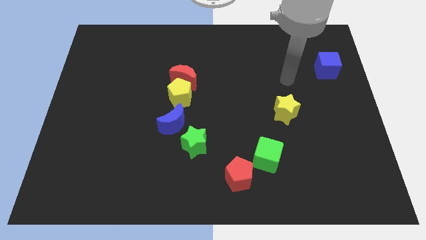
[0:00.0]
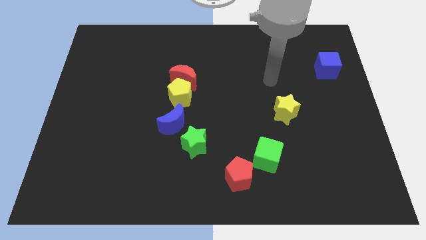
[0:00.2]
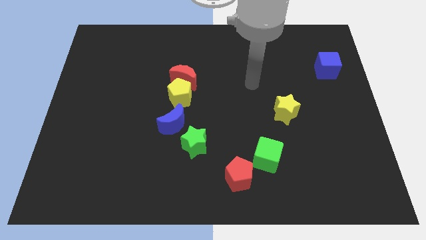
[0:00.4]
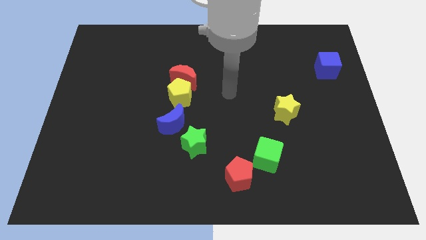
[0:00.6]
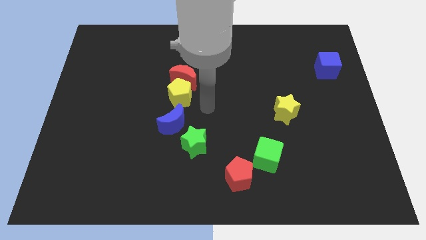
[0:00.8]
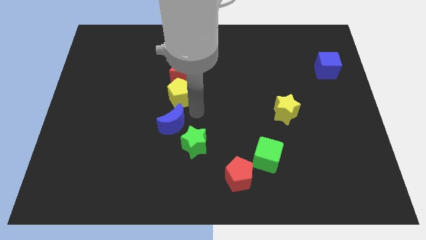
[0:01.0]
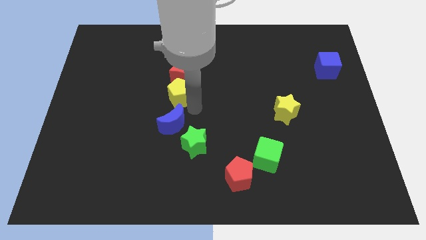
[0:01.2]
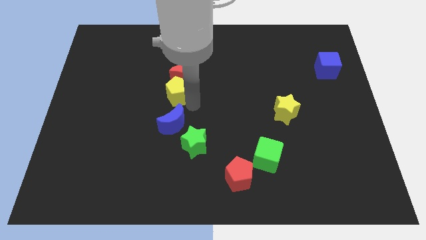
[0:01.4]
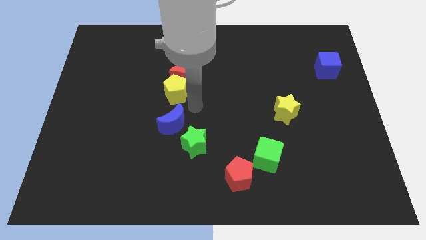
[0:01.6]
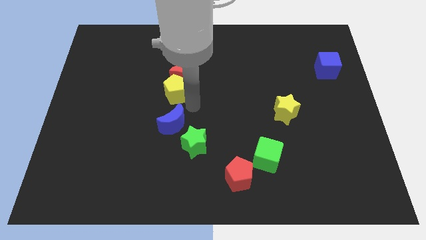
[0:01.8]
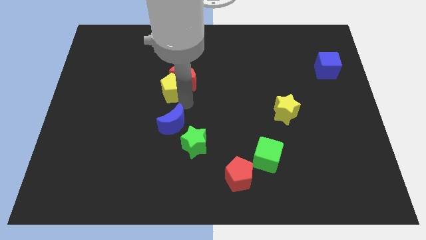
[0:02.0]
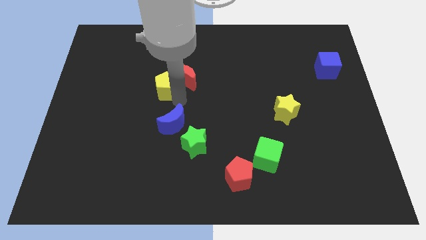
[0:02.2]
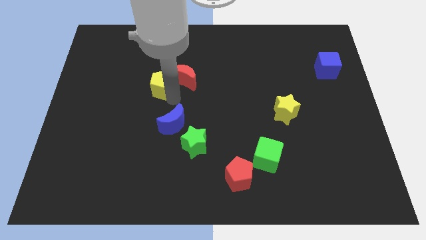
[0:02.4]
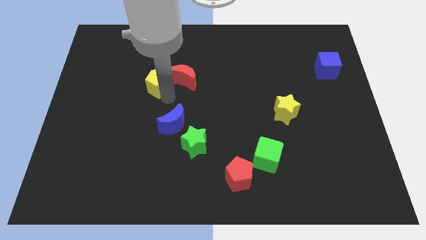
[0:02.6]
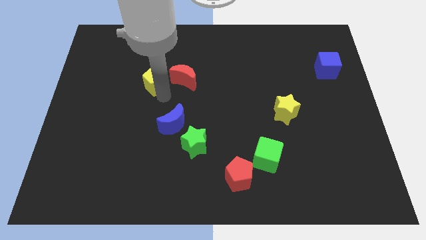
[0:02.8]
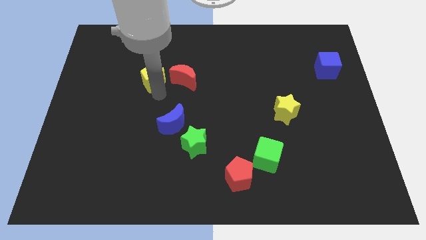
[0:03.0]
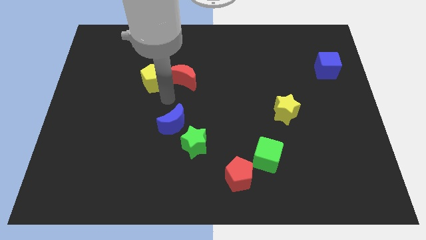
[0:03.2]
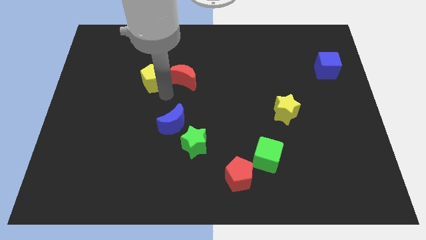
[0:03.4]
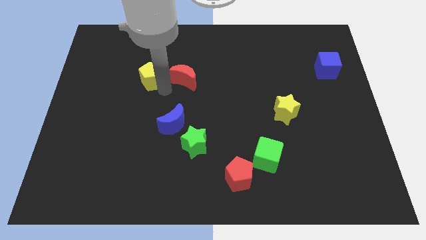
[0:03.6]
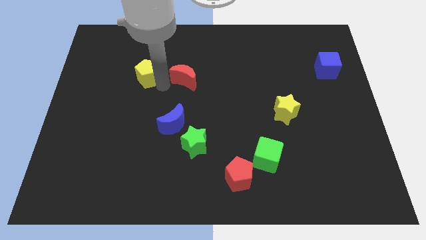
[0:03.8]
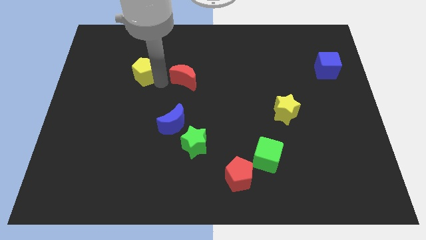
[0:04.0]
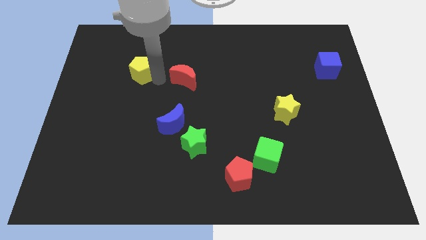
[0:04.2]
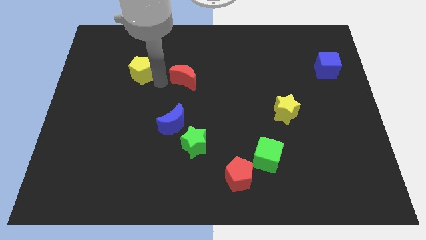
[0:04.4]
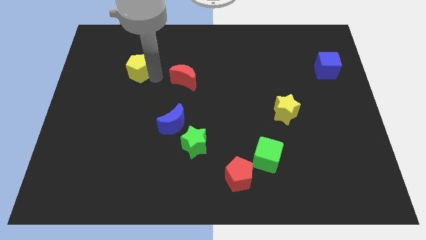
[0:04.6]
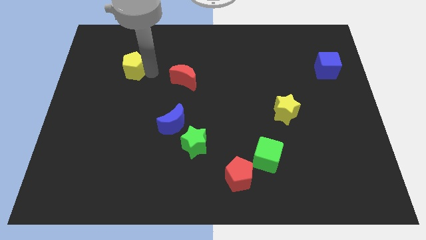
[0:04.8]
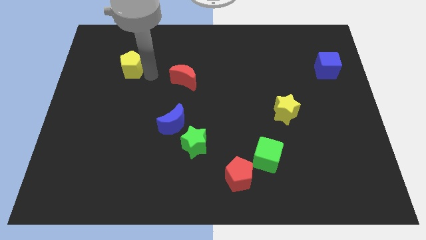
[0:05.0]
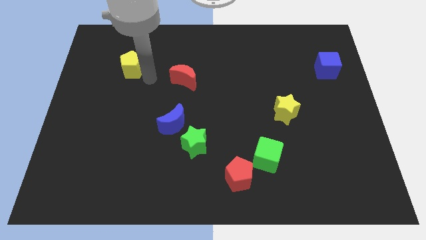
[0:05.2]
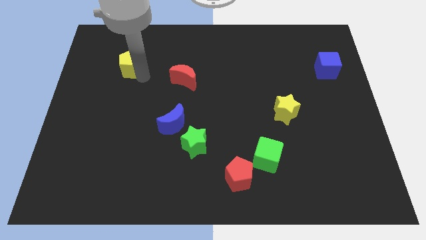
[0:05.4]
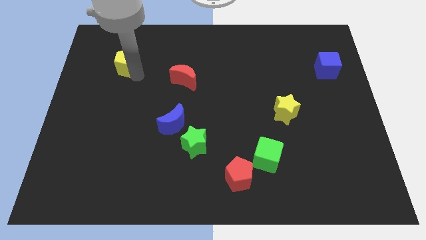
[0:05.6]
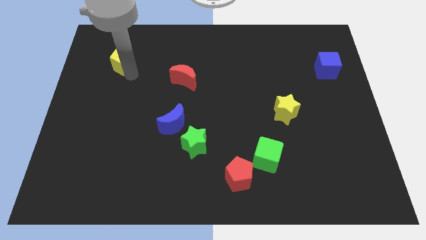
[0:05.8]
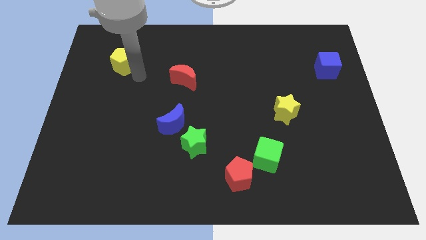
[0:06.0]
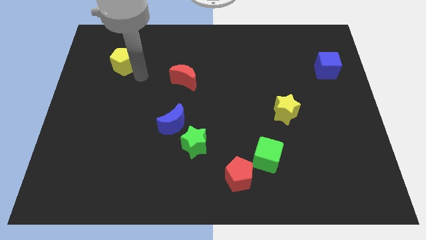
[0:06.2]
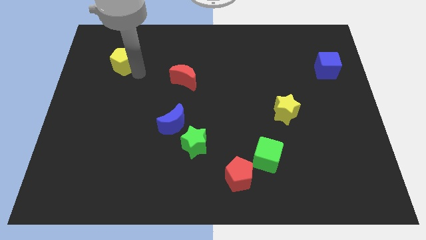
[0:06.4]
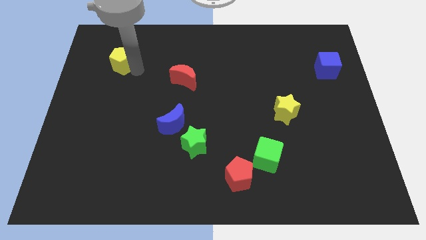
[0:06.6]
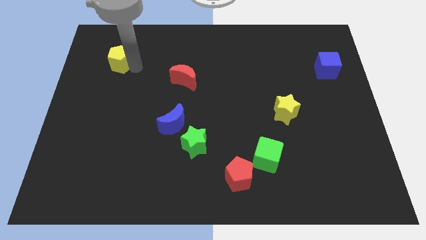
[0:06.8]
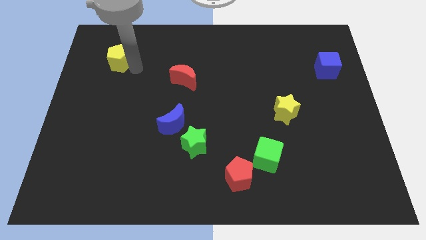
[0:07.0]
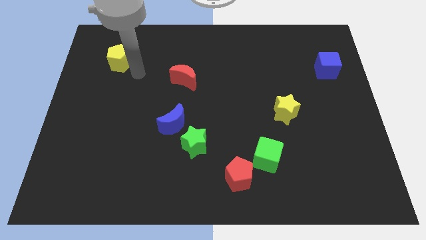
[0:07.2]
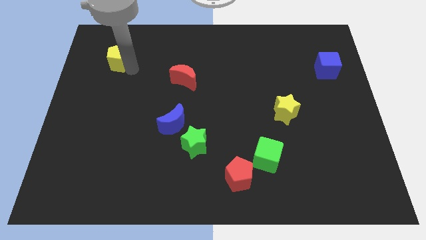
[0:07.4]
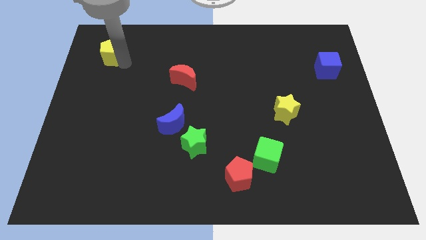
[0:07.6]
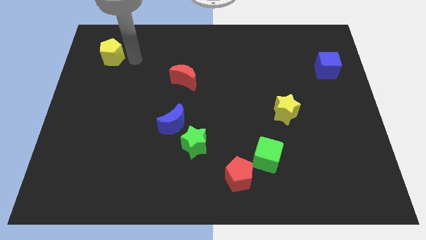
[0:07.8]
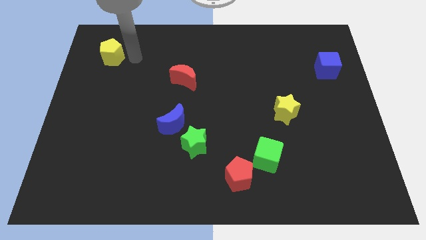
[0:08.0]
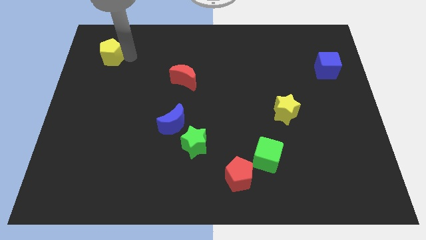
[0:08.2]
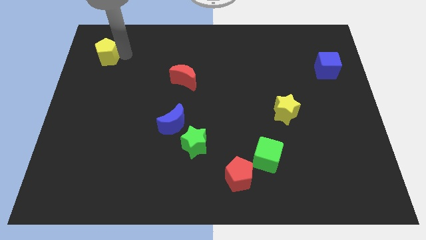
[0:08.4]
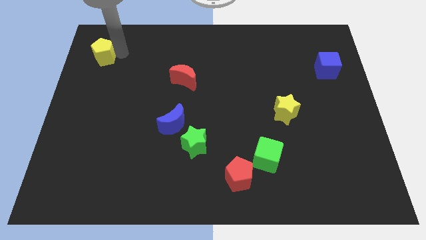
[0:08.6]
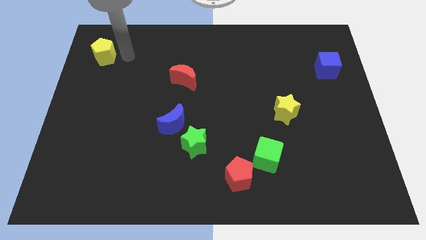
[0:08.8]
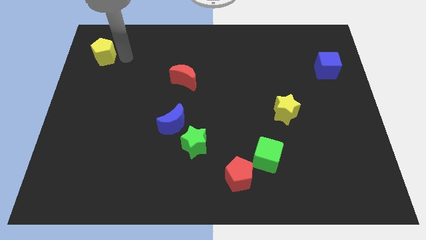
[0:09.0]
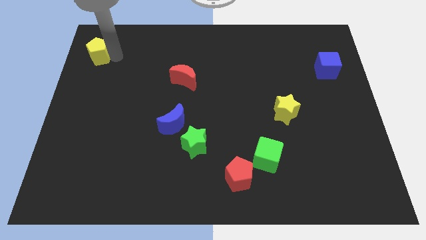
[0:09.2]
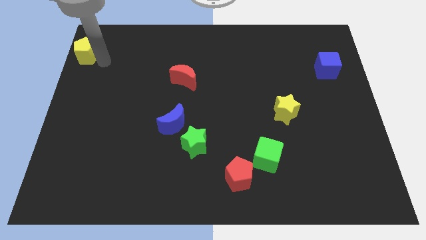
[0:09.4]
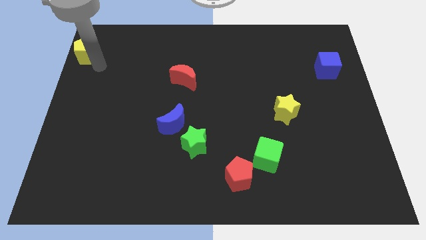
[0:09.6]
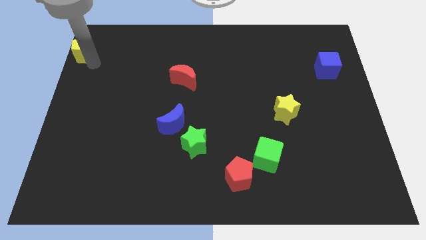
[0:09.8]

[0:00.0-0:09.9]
move the yellow pentagon to the top left corner

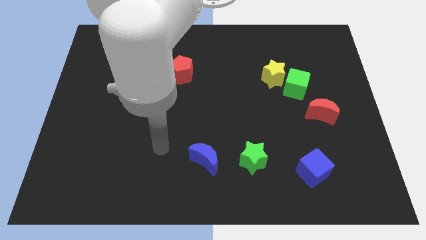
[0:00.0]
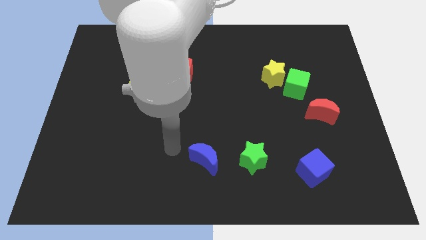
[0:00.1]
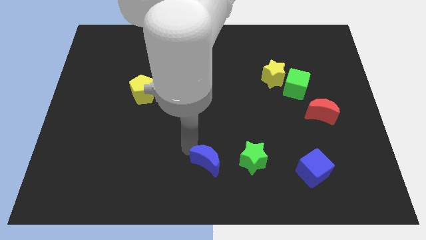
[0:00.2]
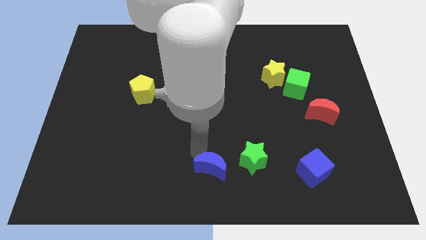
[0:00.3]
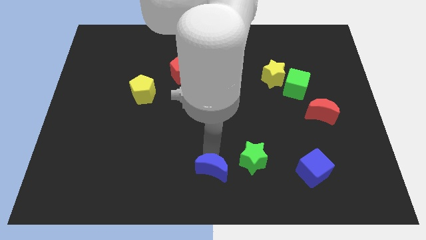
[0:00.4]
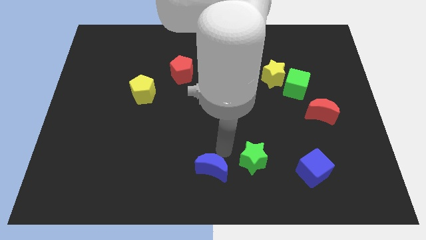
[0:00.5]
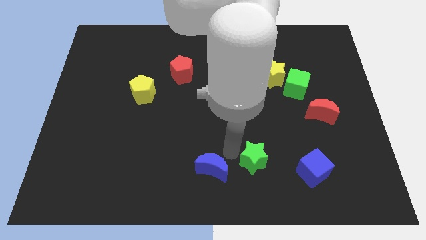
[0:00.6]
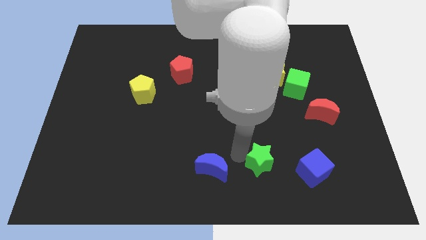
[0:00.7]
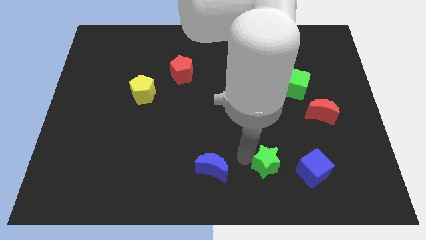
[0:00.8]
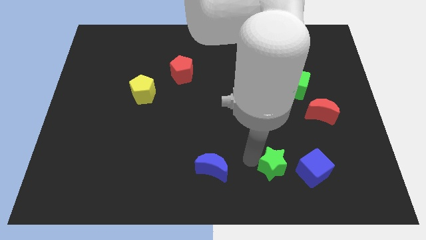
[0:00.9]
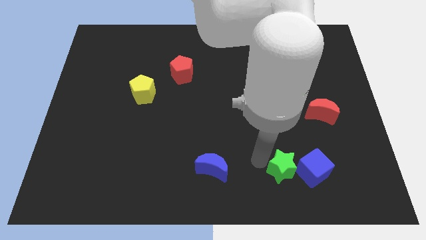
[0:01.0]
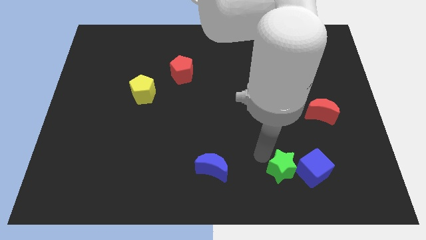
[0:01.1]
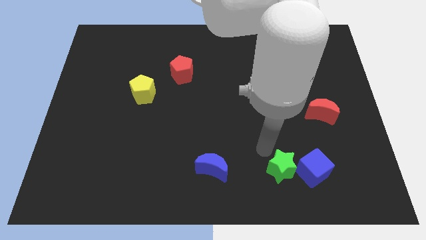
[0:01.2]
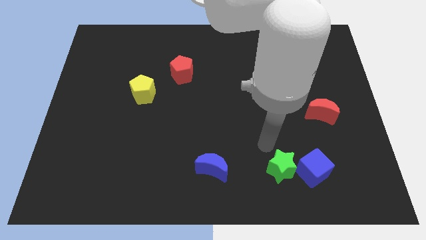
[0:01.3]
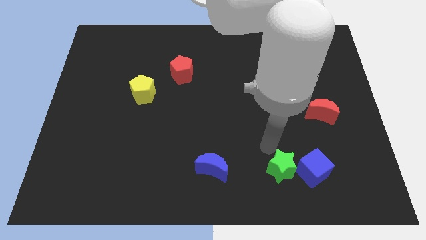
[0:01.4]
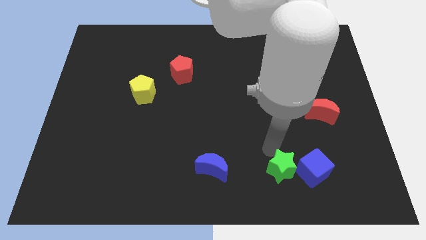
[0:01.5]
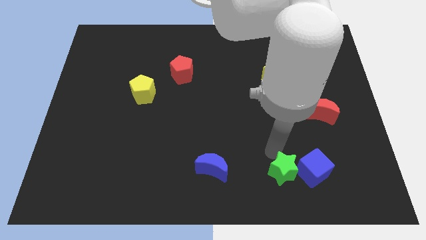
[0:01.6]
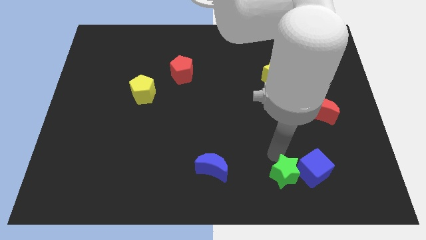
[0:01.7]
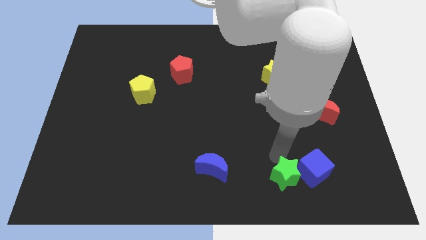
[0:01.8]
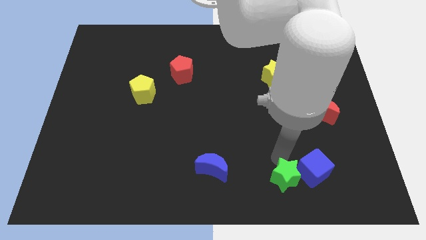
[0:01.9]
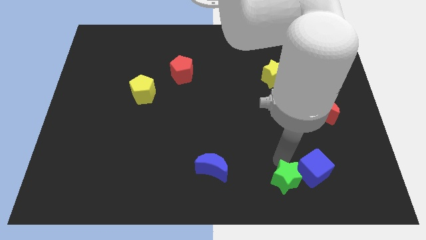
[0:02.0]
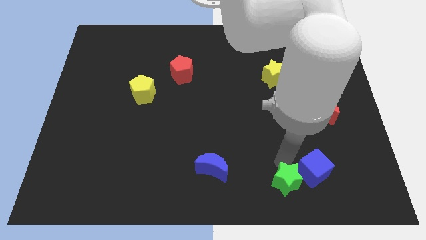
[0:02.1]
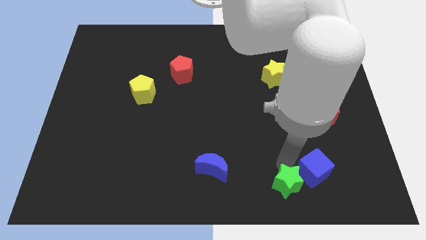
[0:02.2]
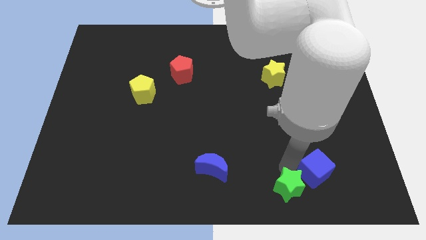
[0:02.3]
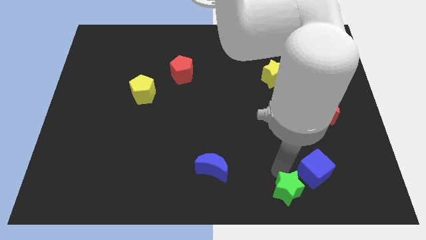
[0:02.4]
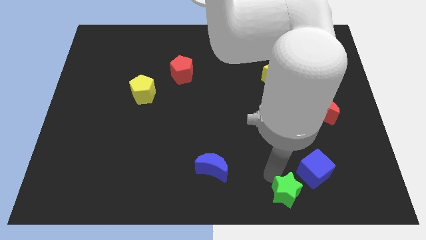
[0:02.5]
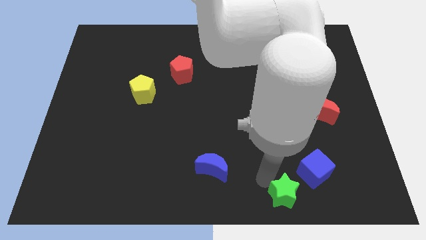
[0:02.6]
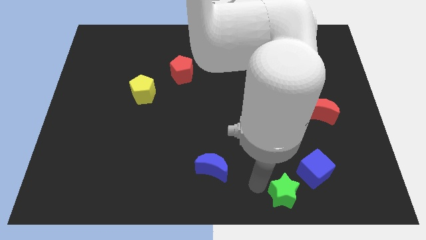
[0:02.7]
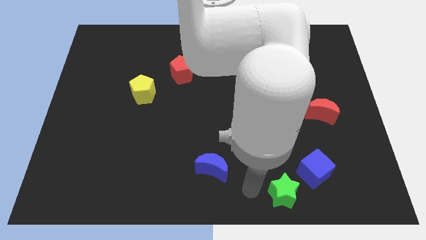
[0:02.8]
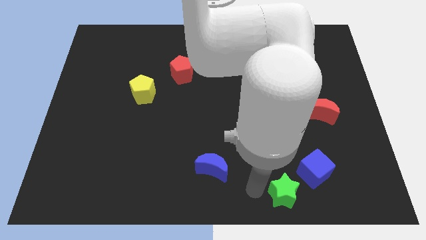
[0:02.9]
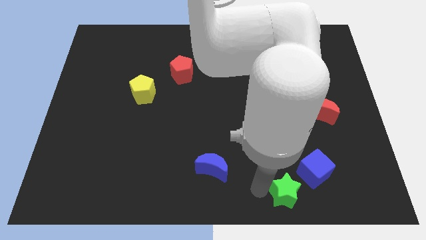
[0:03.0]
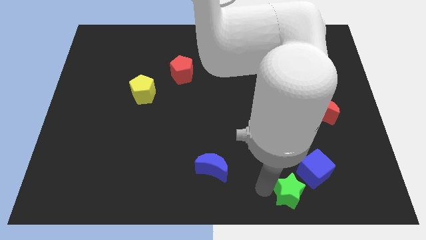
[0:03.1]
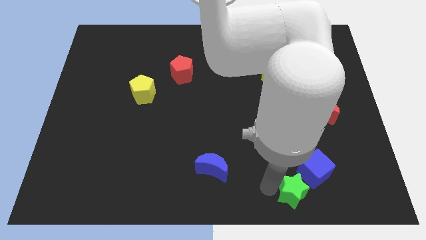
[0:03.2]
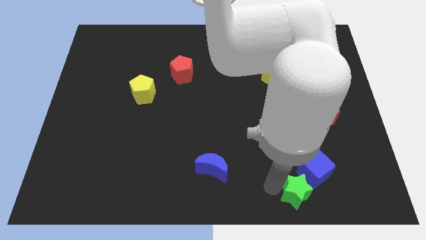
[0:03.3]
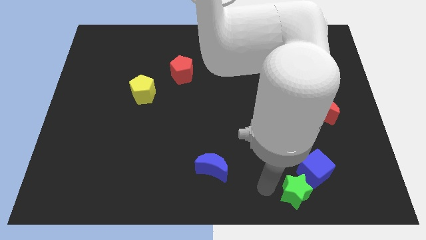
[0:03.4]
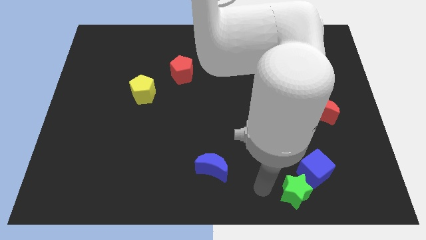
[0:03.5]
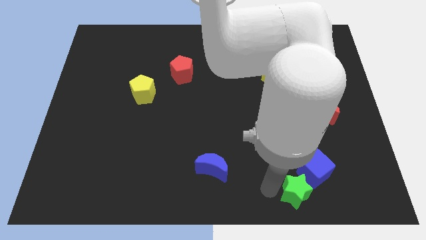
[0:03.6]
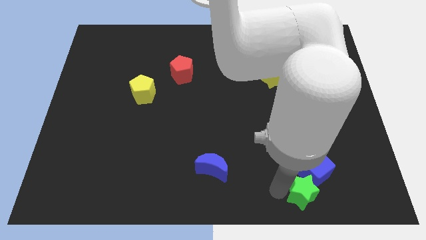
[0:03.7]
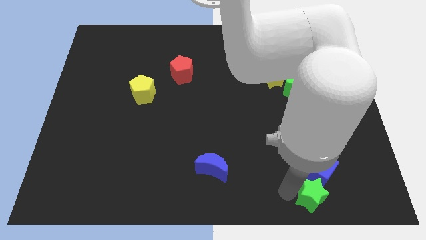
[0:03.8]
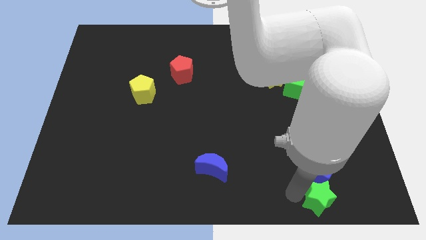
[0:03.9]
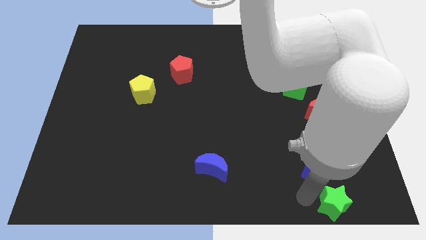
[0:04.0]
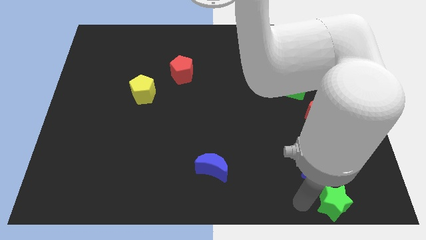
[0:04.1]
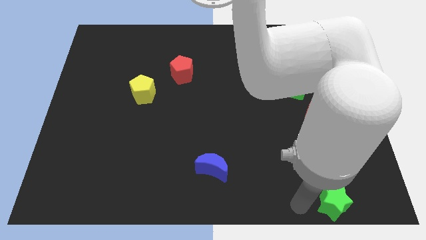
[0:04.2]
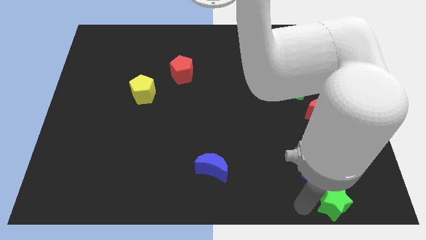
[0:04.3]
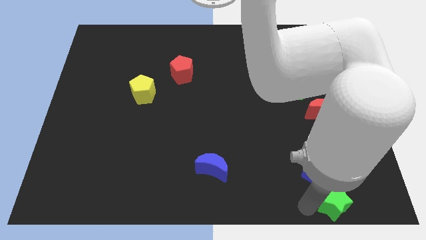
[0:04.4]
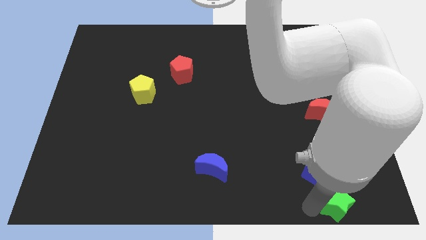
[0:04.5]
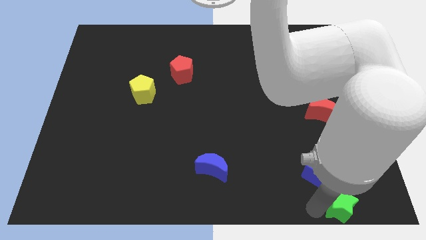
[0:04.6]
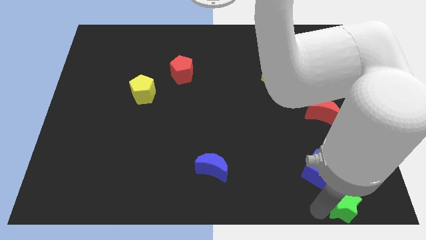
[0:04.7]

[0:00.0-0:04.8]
push the green star to the bottom right of the board
